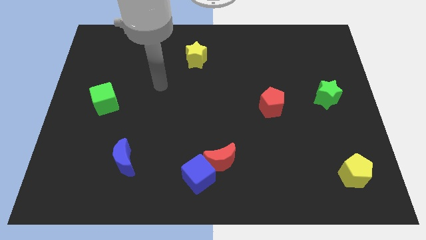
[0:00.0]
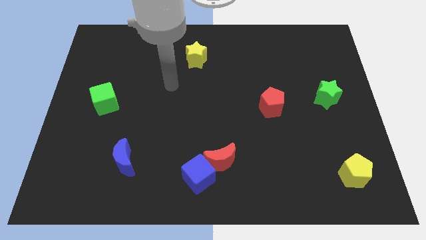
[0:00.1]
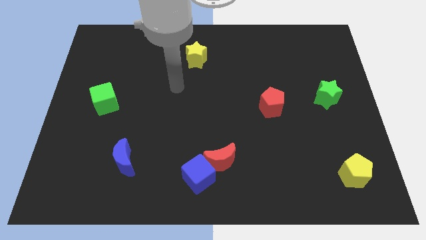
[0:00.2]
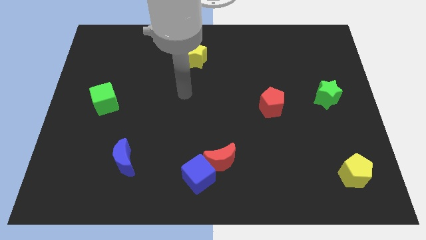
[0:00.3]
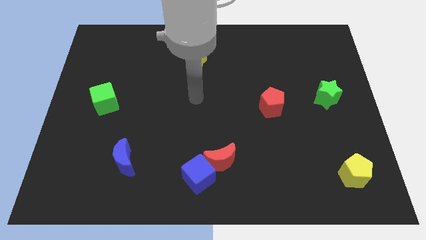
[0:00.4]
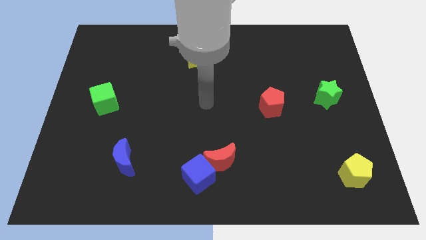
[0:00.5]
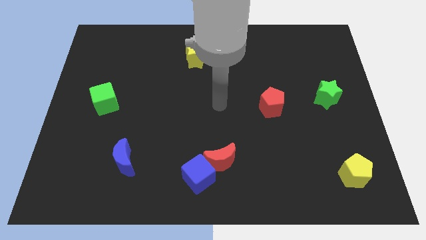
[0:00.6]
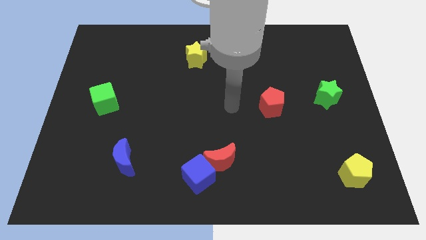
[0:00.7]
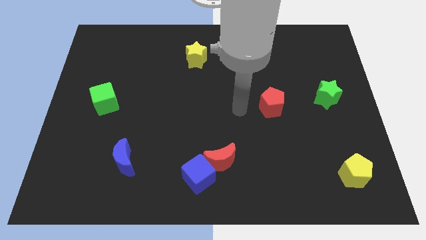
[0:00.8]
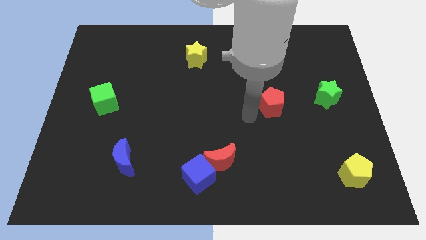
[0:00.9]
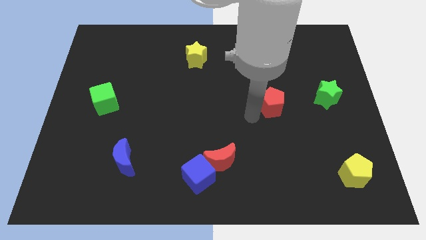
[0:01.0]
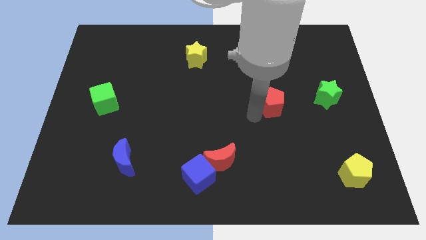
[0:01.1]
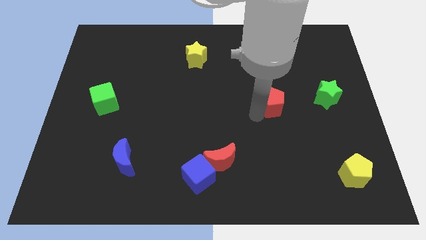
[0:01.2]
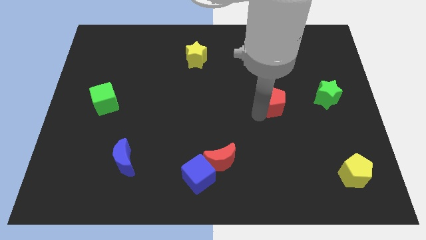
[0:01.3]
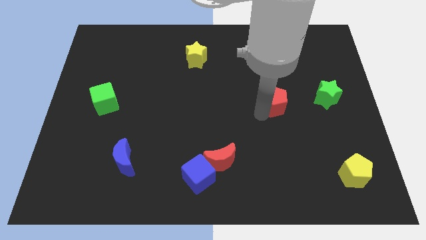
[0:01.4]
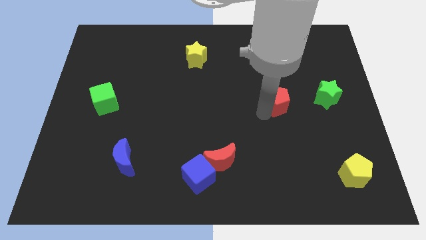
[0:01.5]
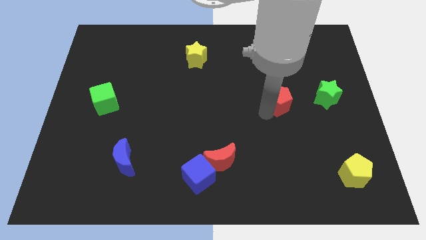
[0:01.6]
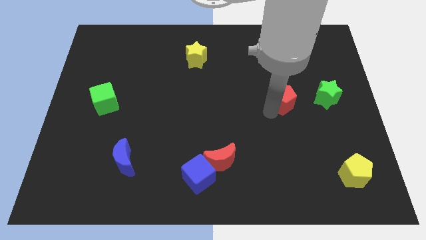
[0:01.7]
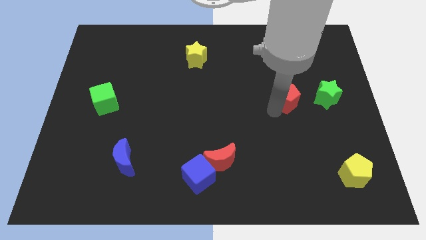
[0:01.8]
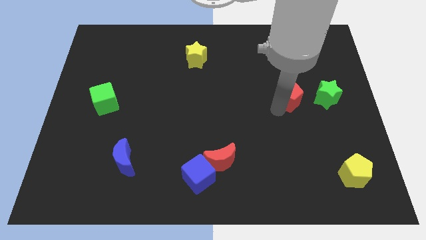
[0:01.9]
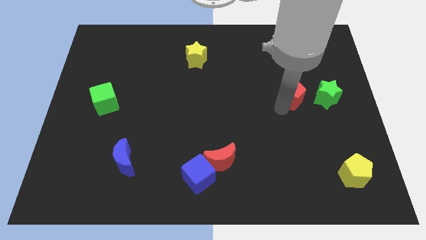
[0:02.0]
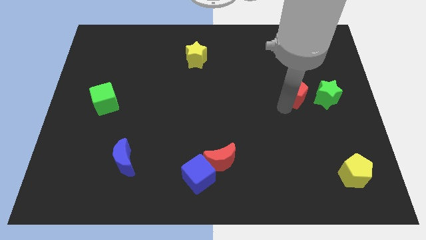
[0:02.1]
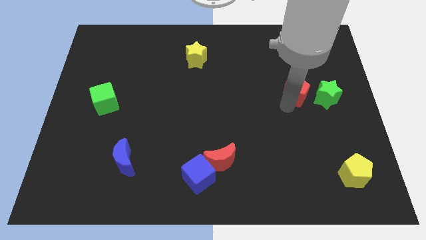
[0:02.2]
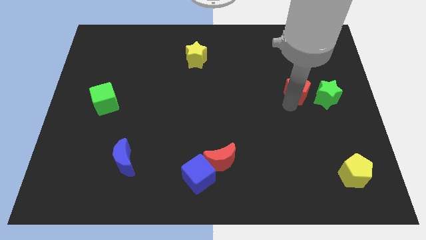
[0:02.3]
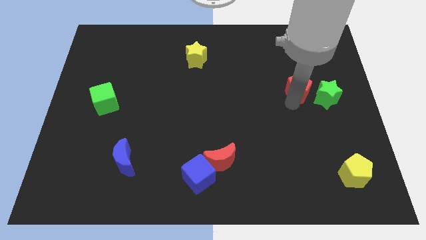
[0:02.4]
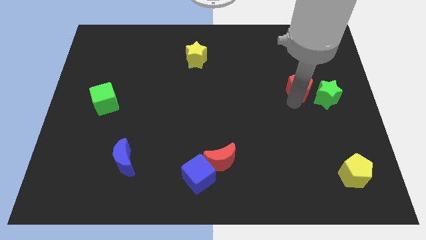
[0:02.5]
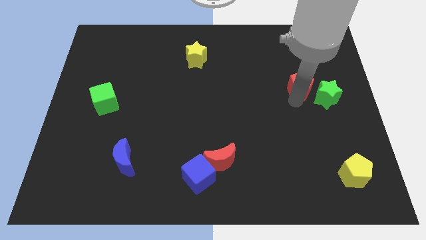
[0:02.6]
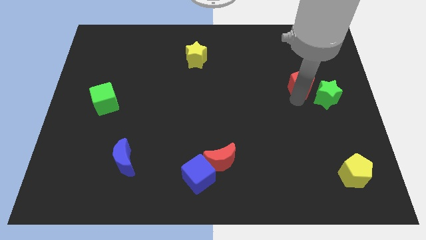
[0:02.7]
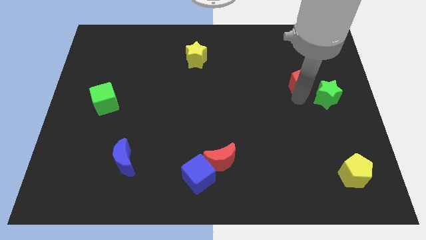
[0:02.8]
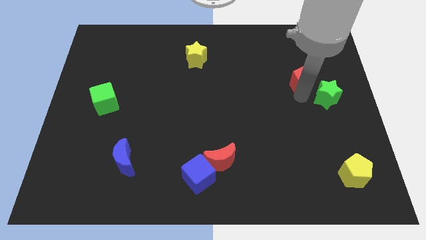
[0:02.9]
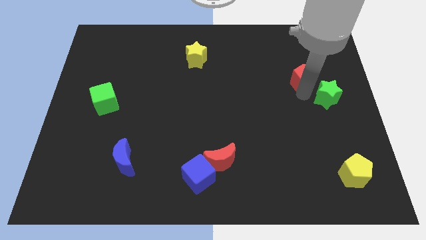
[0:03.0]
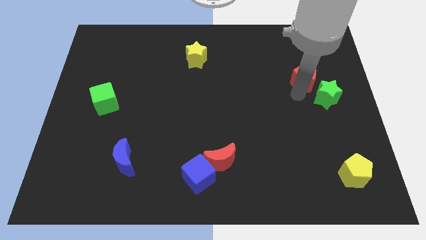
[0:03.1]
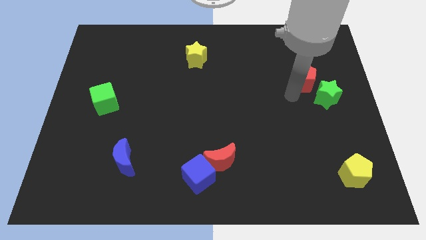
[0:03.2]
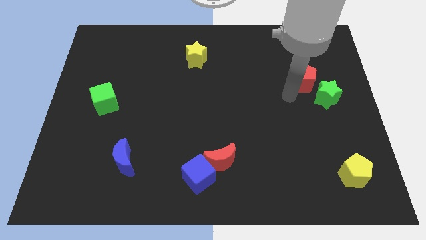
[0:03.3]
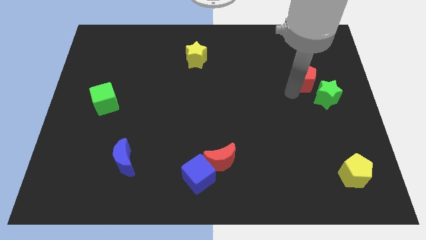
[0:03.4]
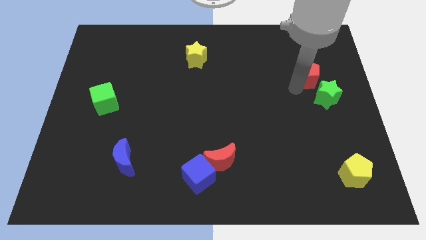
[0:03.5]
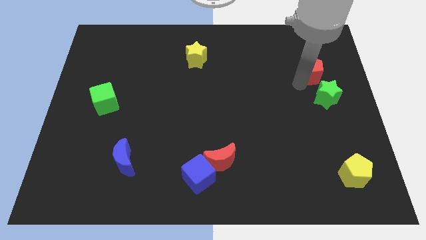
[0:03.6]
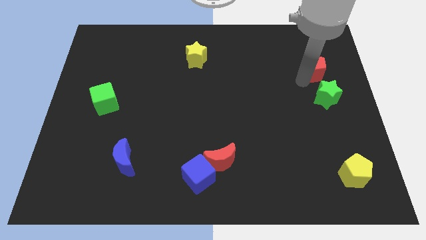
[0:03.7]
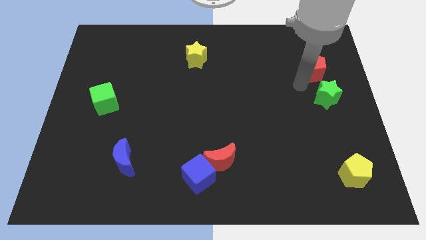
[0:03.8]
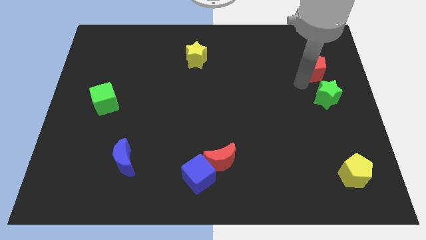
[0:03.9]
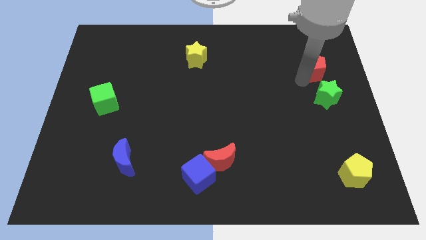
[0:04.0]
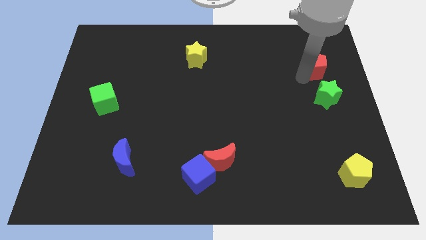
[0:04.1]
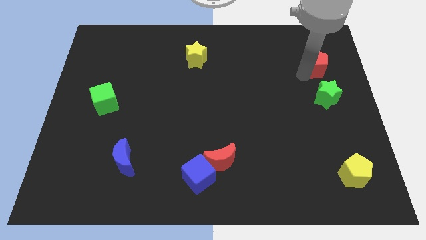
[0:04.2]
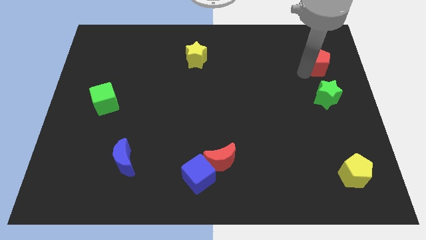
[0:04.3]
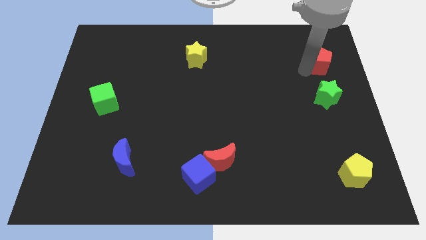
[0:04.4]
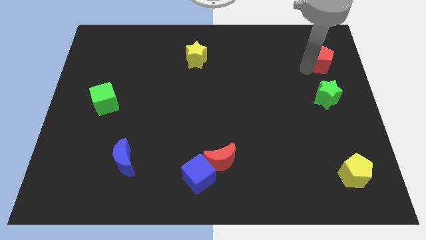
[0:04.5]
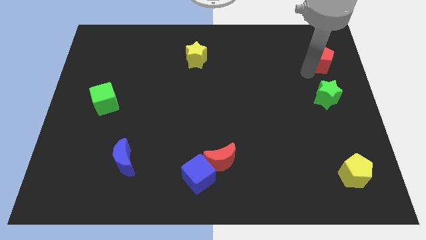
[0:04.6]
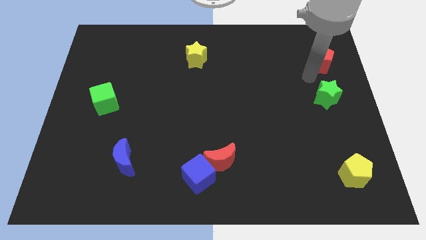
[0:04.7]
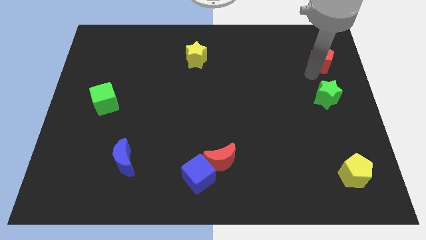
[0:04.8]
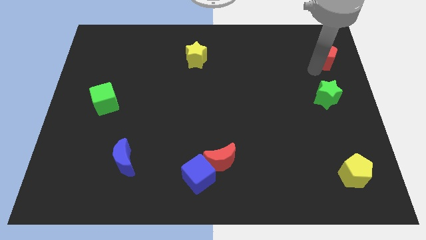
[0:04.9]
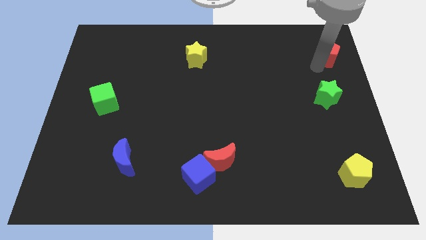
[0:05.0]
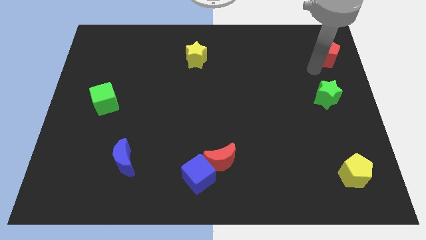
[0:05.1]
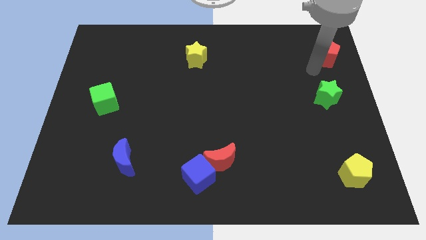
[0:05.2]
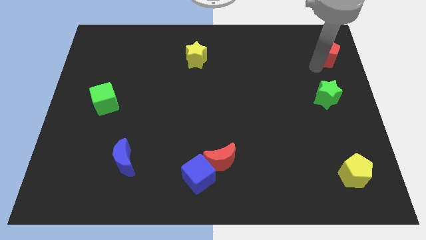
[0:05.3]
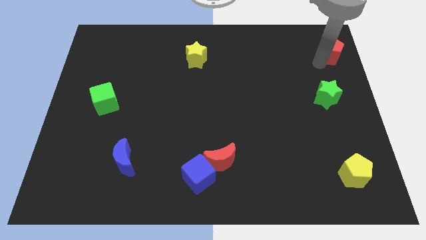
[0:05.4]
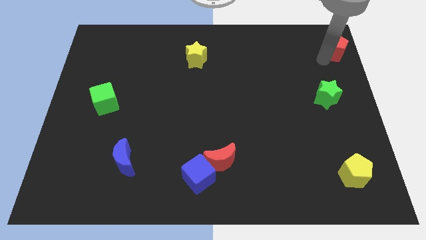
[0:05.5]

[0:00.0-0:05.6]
slide the red pentagon to the top right corner

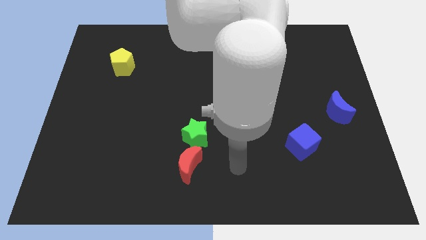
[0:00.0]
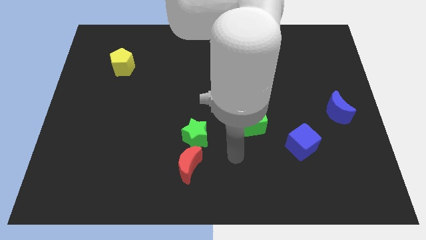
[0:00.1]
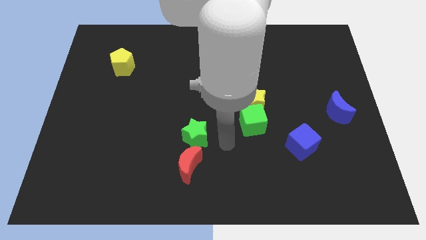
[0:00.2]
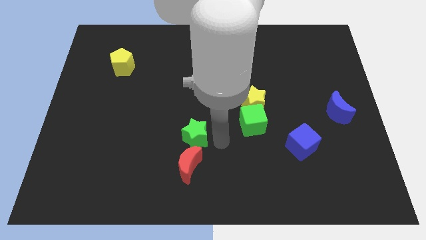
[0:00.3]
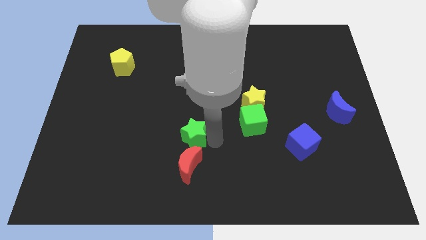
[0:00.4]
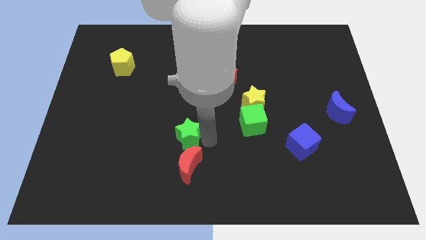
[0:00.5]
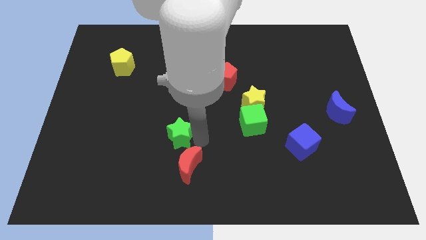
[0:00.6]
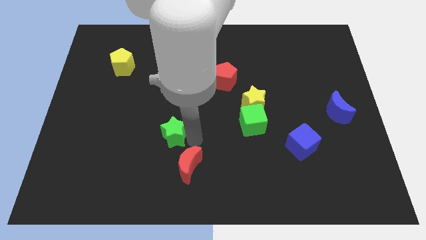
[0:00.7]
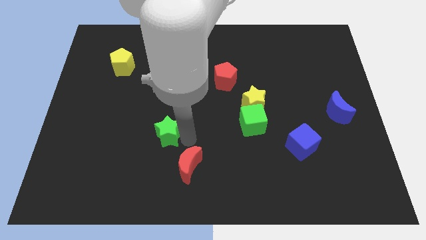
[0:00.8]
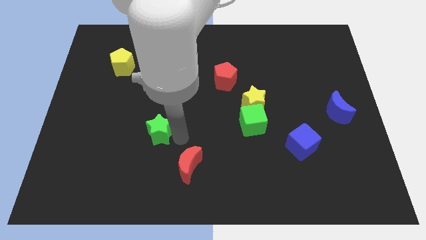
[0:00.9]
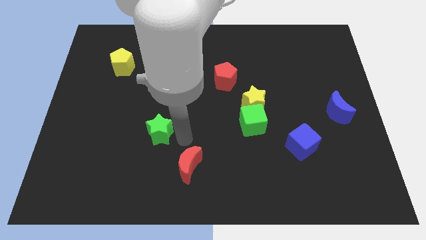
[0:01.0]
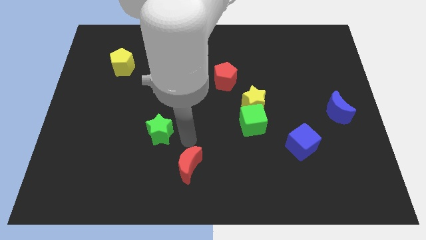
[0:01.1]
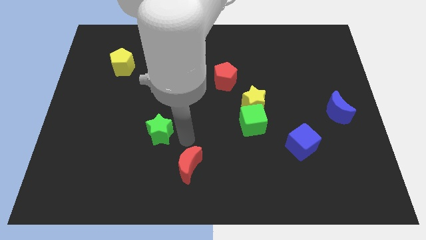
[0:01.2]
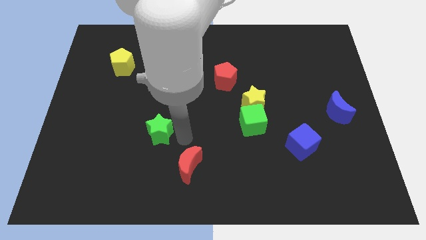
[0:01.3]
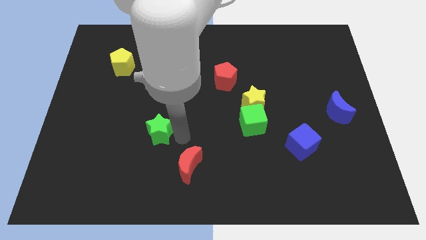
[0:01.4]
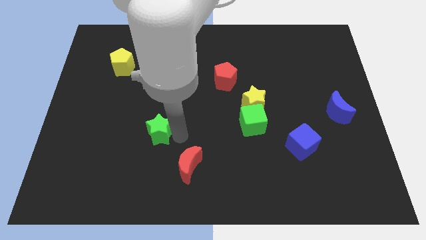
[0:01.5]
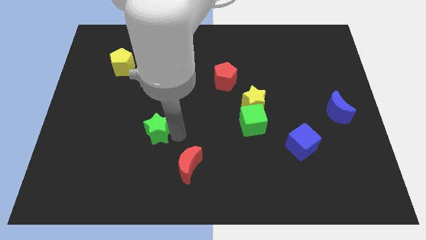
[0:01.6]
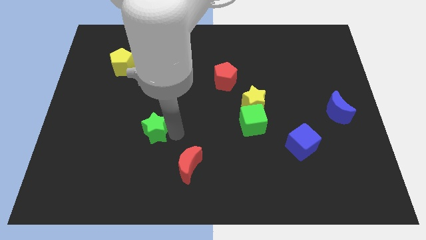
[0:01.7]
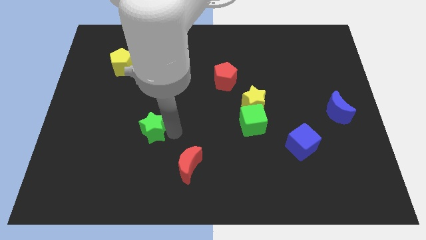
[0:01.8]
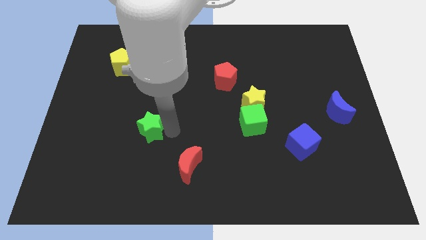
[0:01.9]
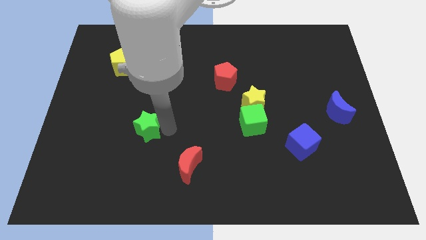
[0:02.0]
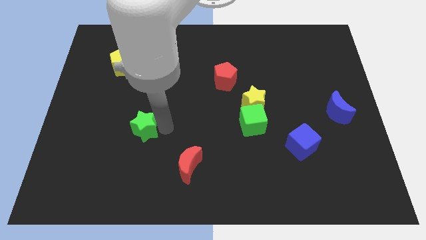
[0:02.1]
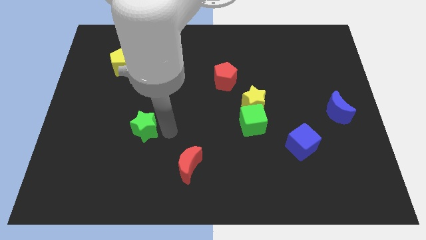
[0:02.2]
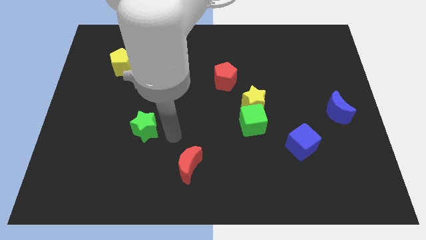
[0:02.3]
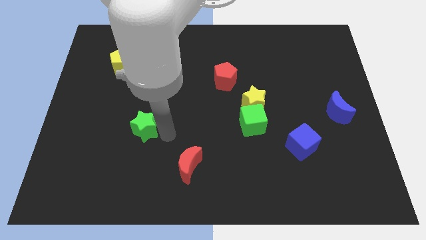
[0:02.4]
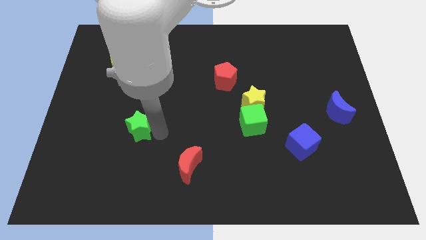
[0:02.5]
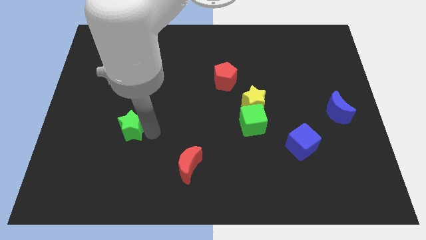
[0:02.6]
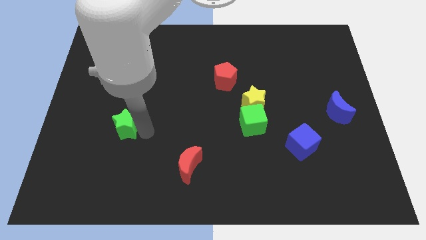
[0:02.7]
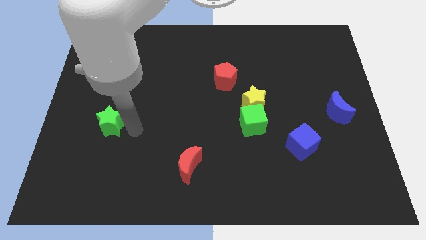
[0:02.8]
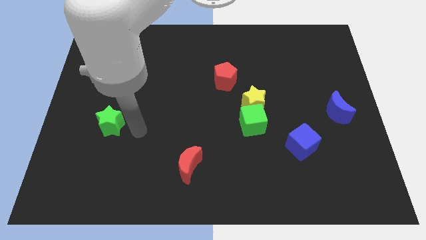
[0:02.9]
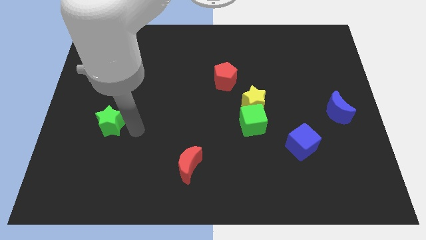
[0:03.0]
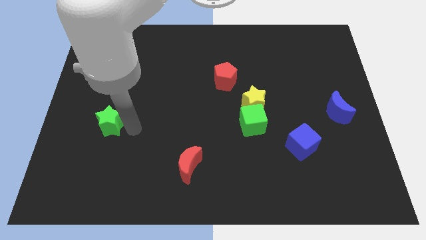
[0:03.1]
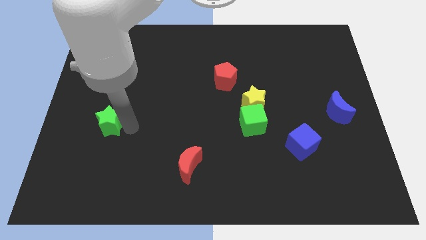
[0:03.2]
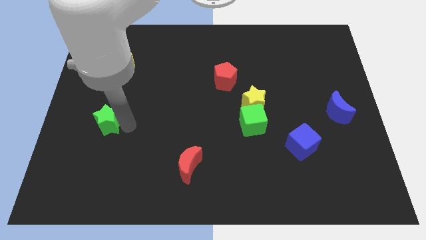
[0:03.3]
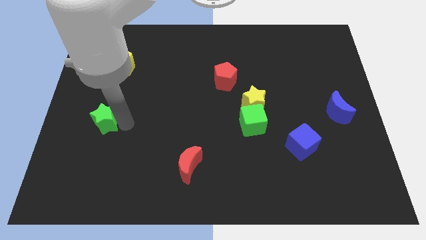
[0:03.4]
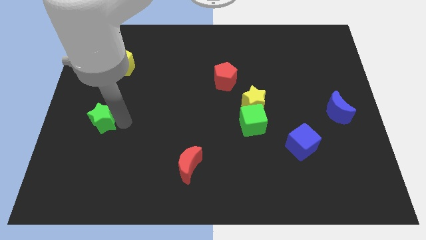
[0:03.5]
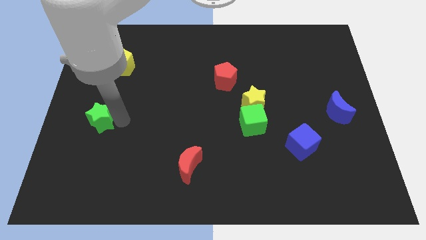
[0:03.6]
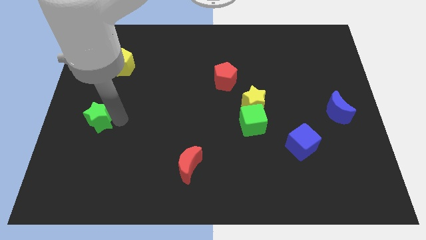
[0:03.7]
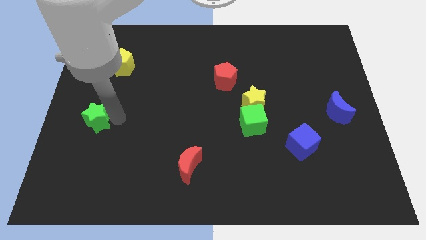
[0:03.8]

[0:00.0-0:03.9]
push the green star to the left side of the board
